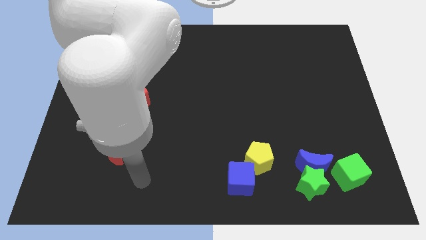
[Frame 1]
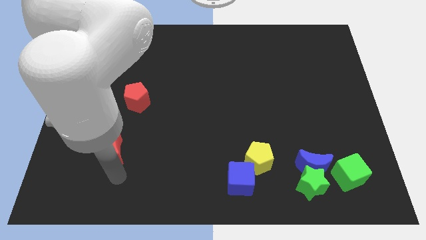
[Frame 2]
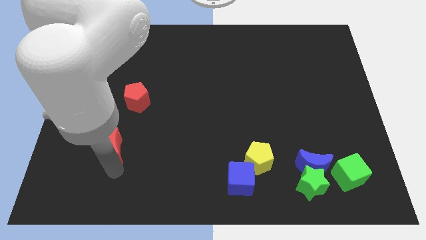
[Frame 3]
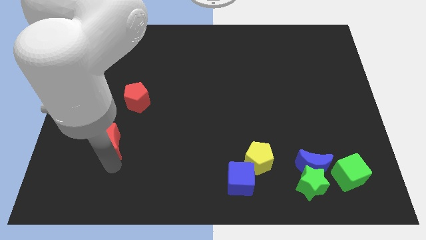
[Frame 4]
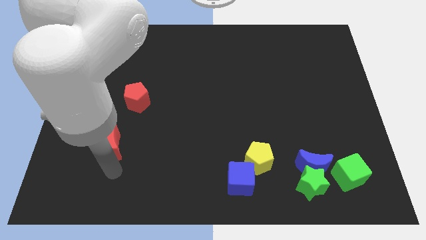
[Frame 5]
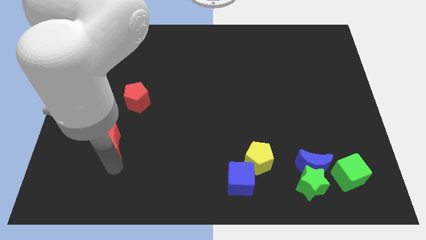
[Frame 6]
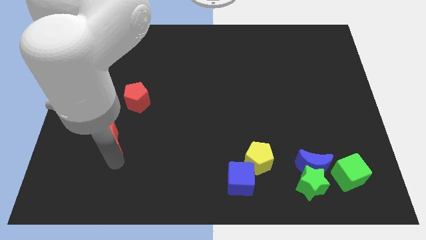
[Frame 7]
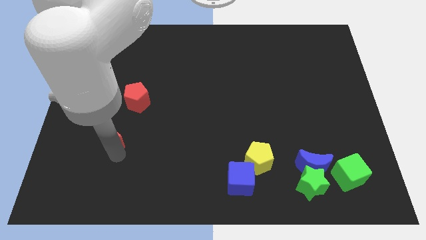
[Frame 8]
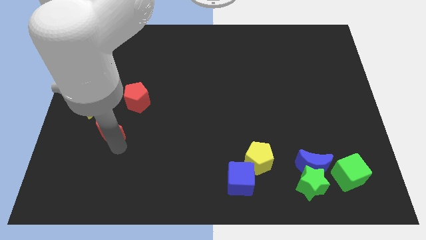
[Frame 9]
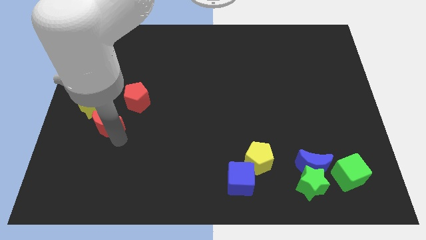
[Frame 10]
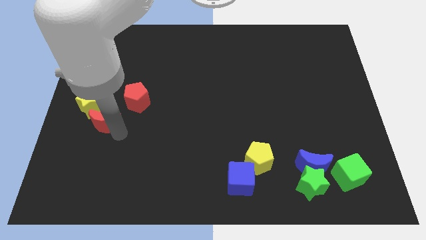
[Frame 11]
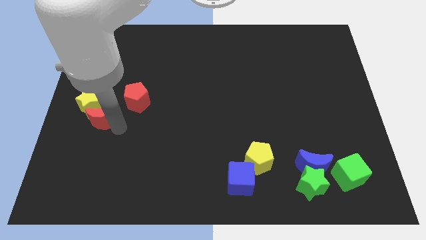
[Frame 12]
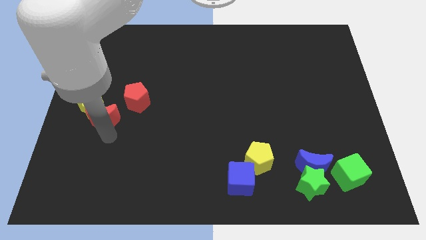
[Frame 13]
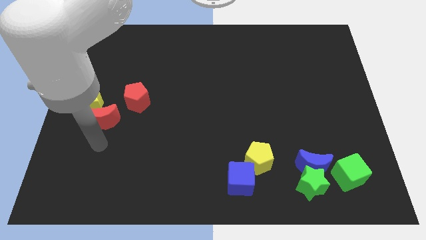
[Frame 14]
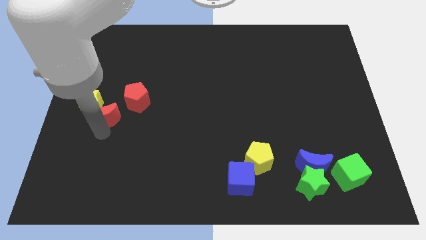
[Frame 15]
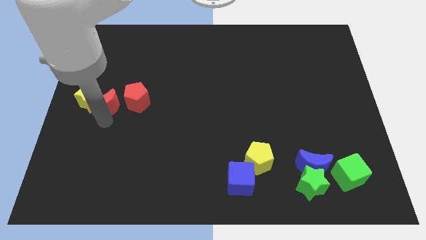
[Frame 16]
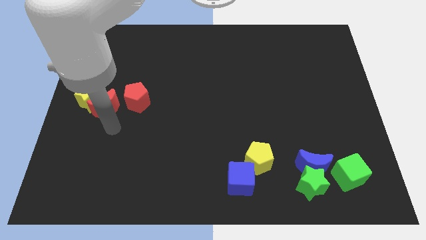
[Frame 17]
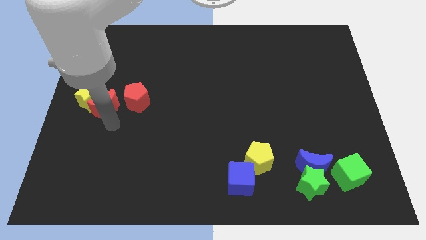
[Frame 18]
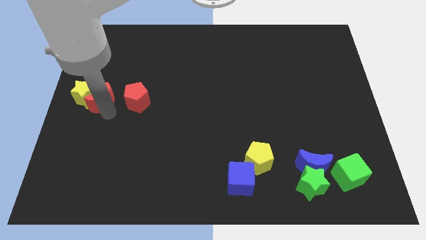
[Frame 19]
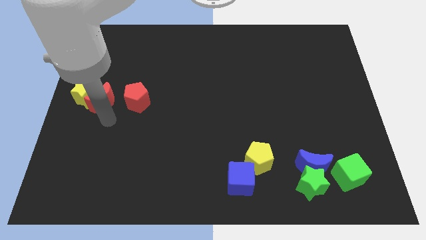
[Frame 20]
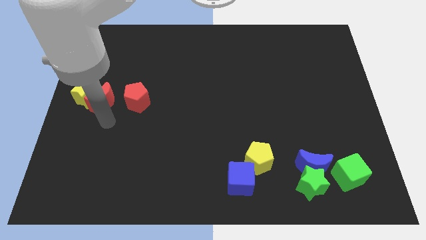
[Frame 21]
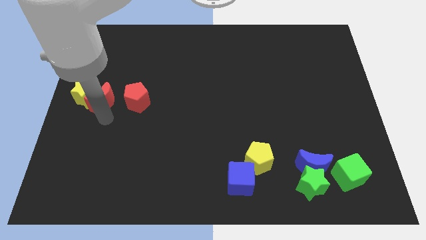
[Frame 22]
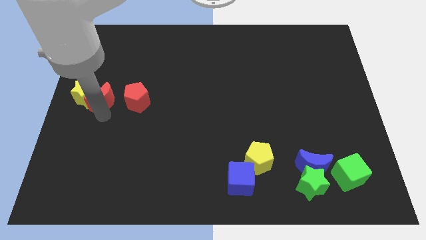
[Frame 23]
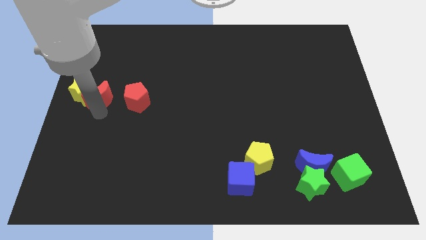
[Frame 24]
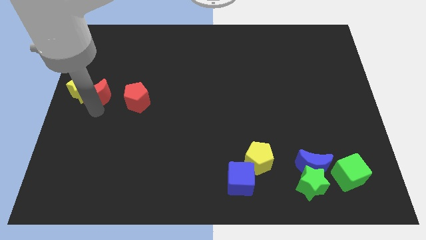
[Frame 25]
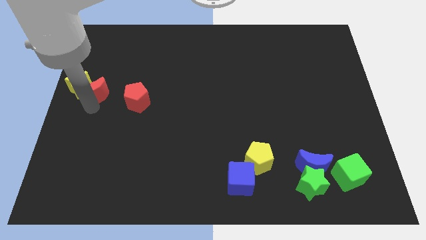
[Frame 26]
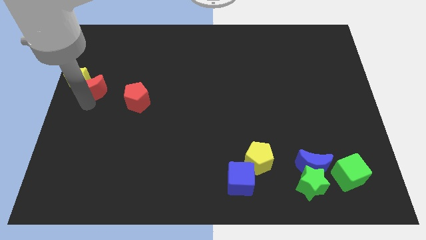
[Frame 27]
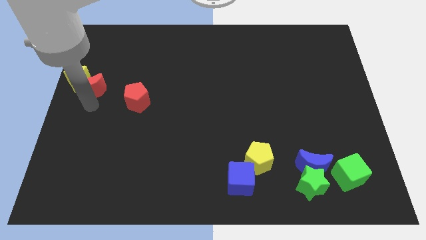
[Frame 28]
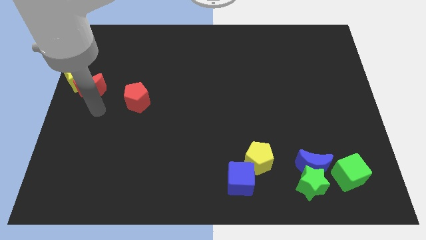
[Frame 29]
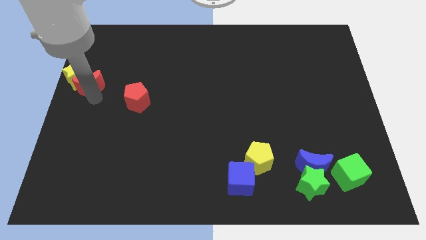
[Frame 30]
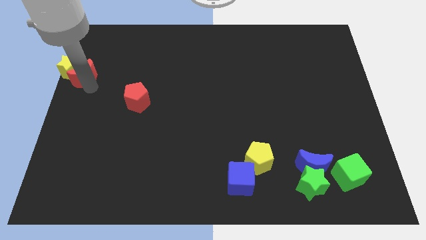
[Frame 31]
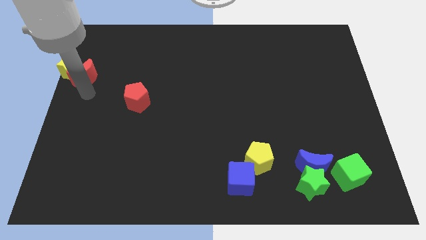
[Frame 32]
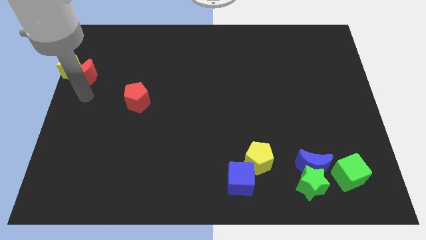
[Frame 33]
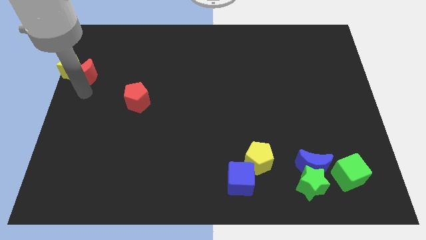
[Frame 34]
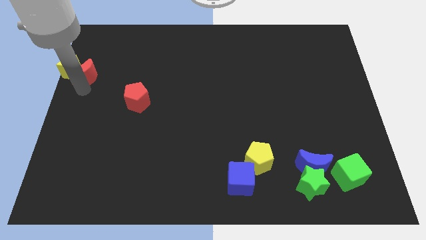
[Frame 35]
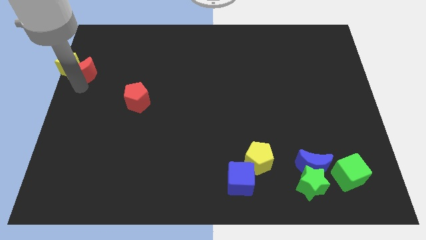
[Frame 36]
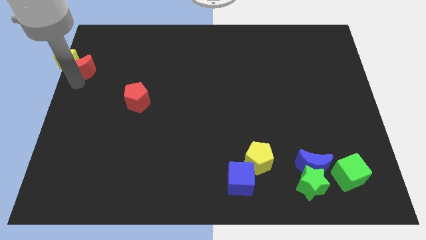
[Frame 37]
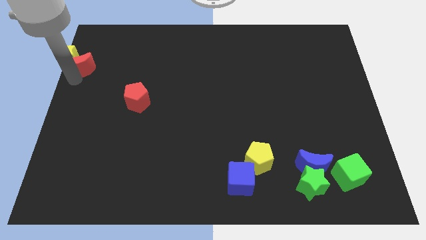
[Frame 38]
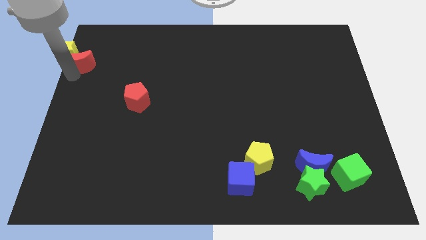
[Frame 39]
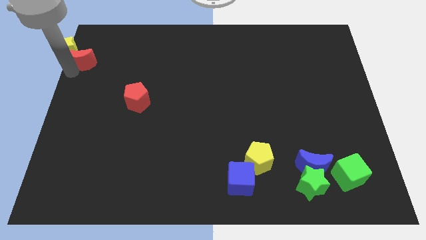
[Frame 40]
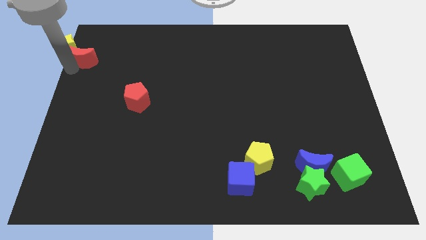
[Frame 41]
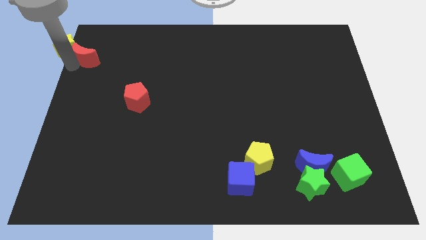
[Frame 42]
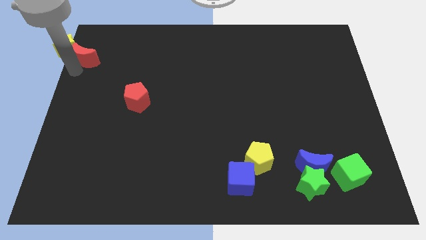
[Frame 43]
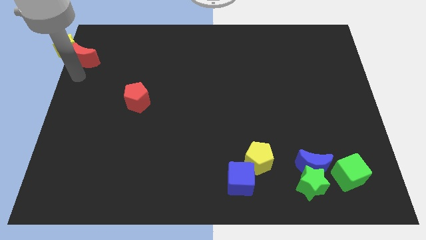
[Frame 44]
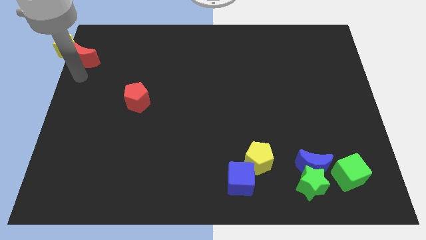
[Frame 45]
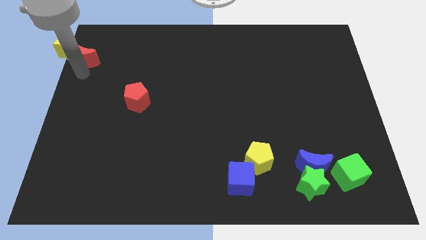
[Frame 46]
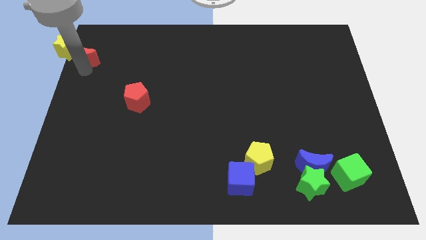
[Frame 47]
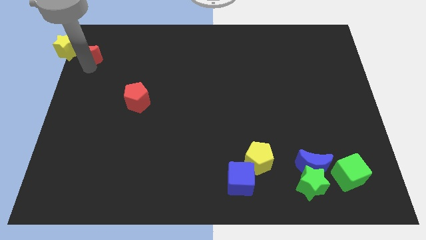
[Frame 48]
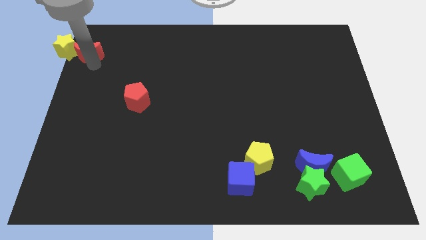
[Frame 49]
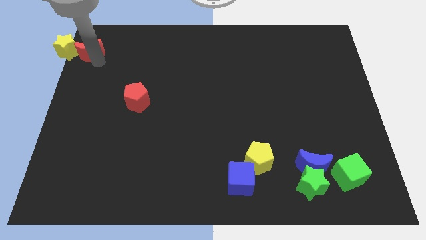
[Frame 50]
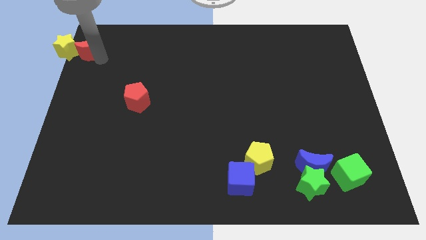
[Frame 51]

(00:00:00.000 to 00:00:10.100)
put the red moon to the upper left corner
